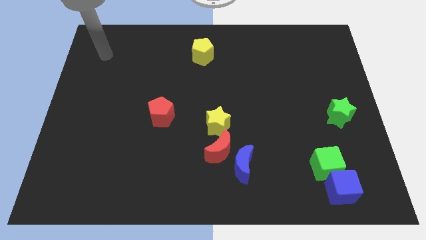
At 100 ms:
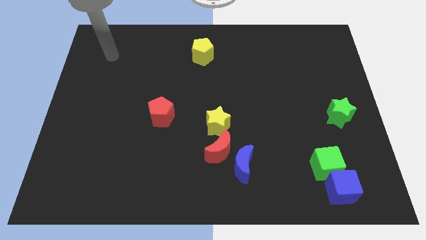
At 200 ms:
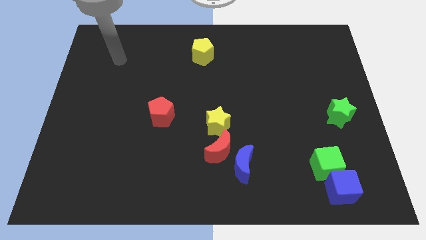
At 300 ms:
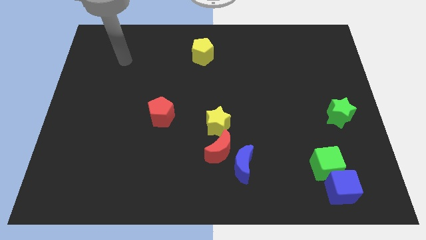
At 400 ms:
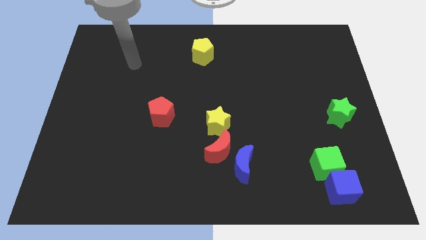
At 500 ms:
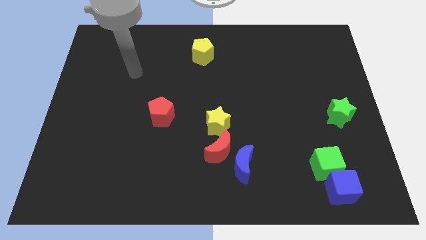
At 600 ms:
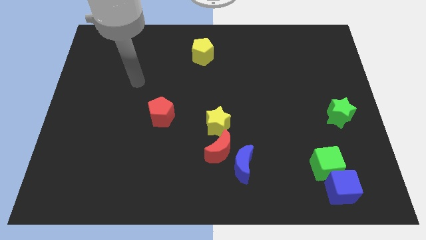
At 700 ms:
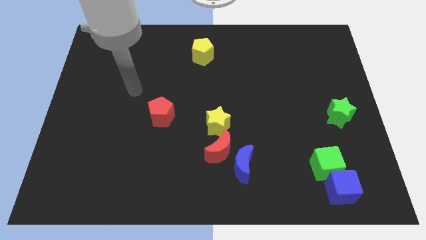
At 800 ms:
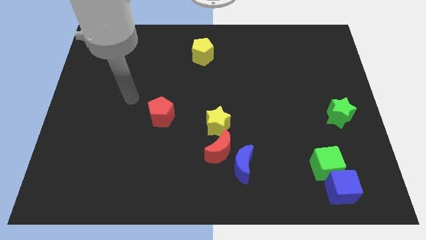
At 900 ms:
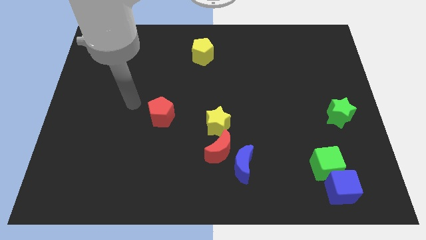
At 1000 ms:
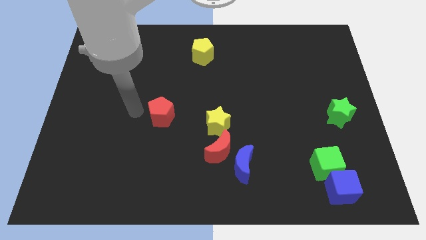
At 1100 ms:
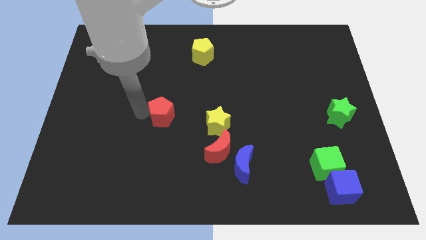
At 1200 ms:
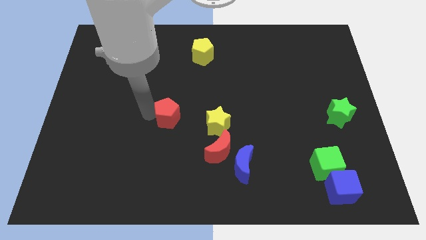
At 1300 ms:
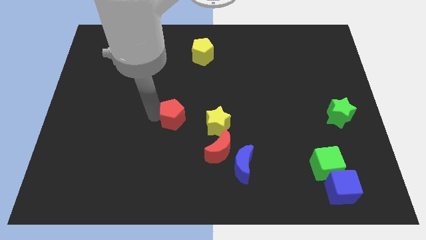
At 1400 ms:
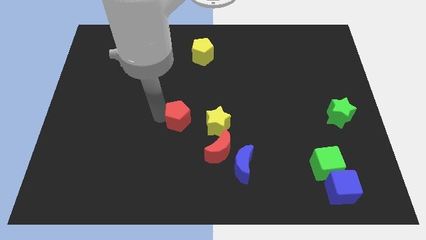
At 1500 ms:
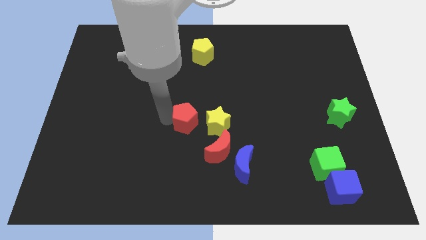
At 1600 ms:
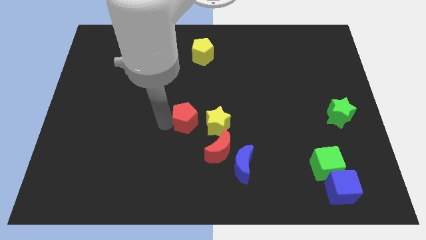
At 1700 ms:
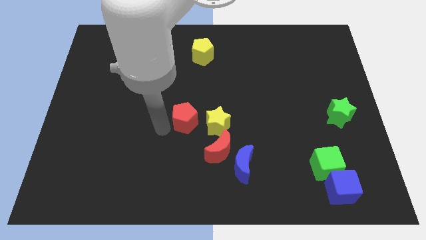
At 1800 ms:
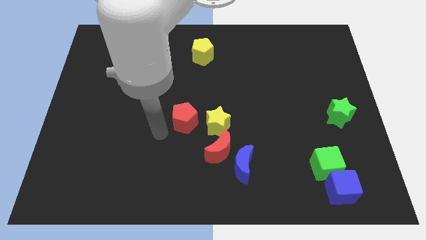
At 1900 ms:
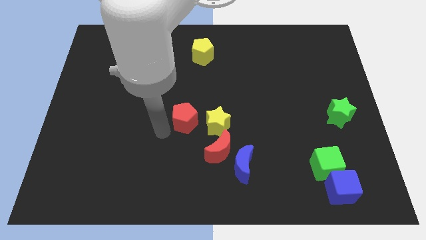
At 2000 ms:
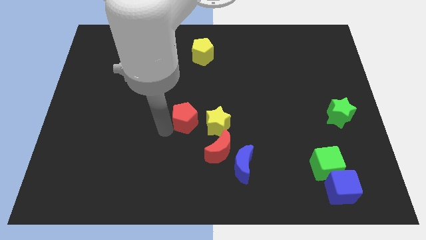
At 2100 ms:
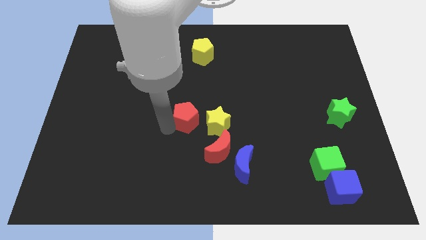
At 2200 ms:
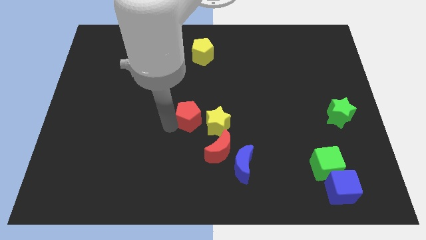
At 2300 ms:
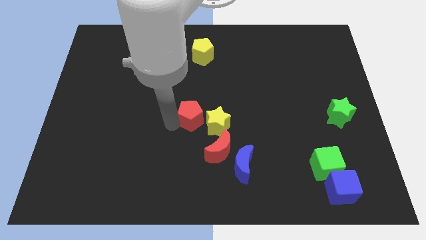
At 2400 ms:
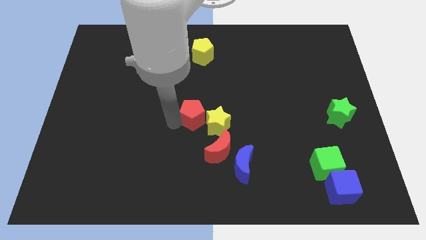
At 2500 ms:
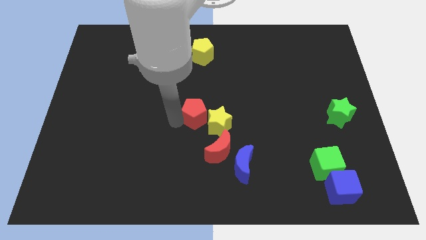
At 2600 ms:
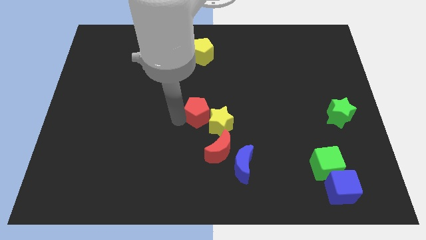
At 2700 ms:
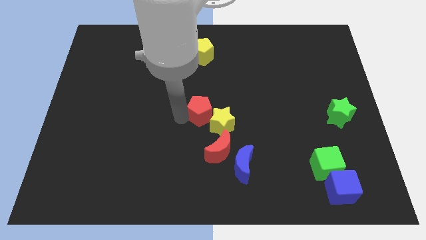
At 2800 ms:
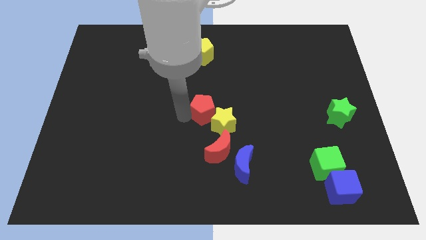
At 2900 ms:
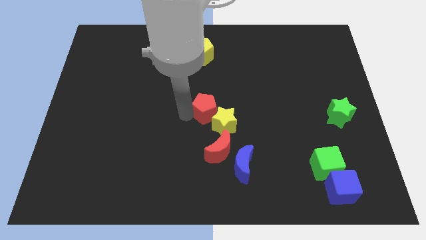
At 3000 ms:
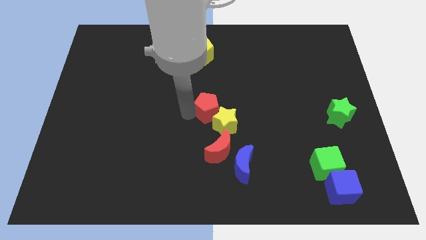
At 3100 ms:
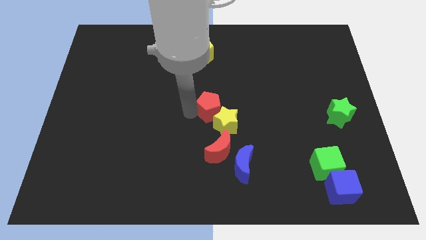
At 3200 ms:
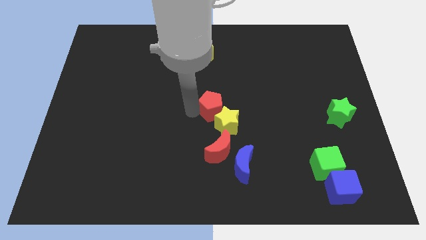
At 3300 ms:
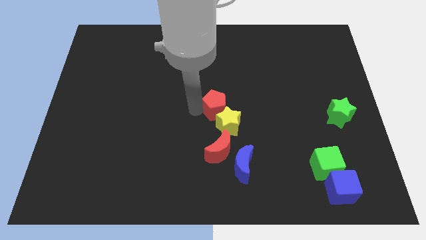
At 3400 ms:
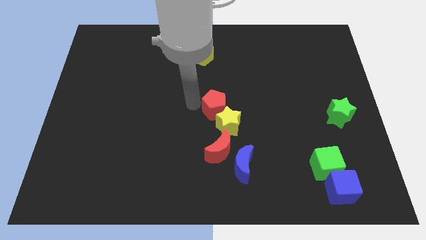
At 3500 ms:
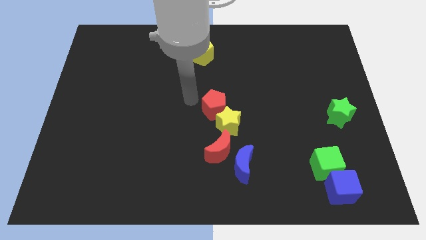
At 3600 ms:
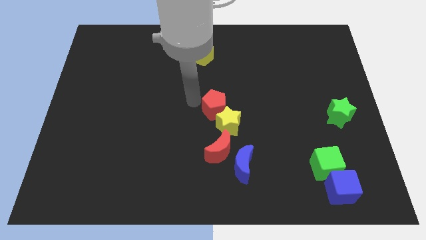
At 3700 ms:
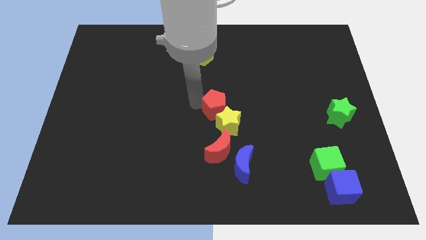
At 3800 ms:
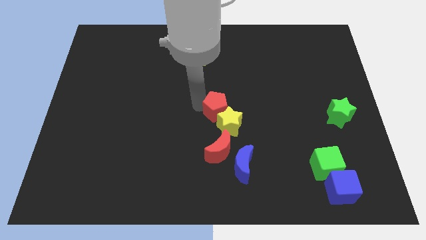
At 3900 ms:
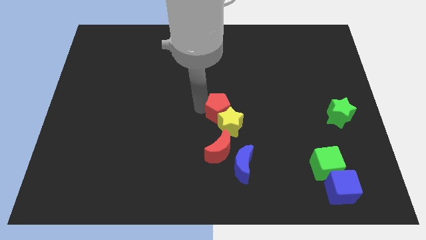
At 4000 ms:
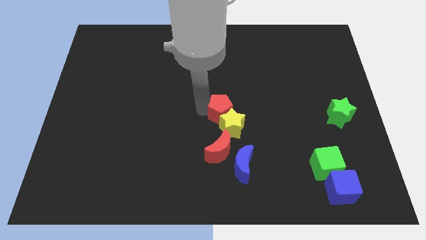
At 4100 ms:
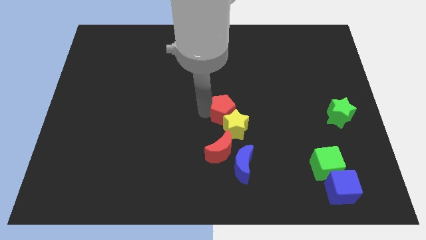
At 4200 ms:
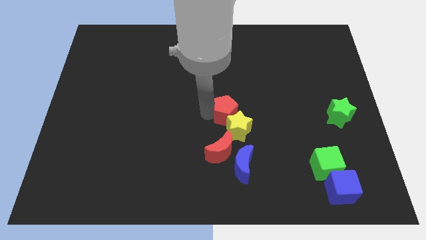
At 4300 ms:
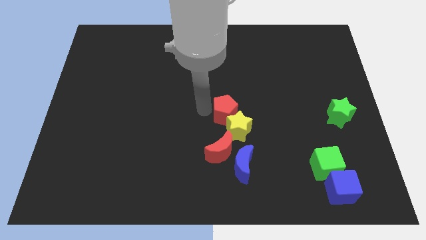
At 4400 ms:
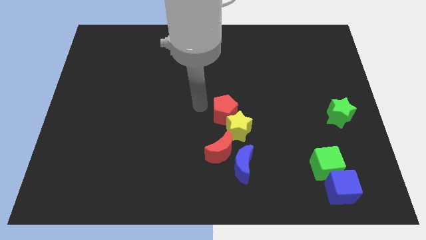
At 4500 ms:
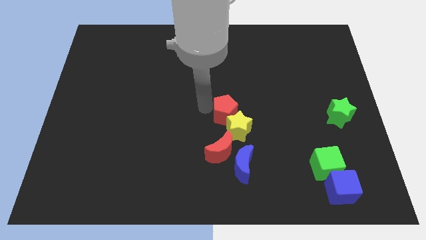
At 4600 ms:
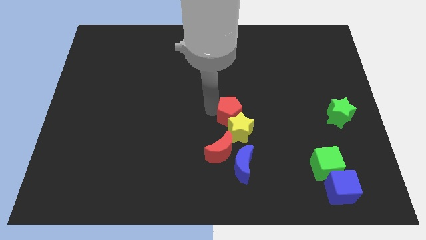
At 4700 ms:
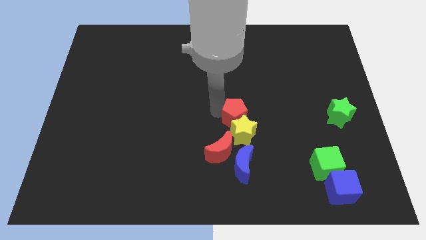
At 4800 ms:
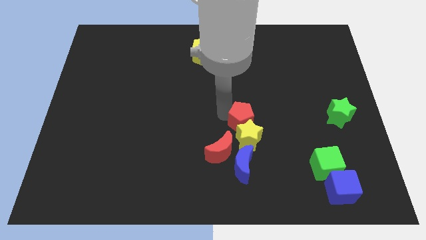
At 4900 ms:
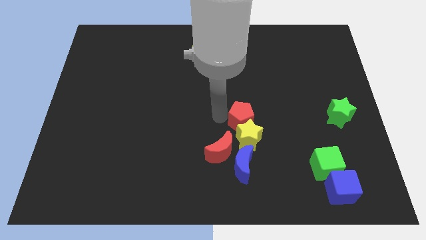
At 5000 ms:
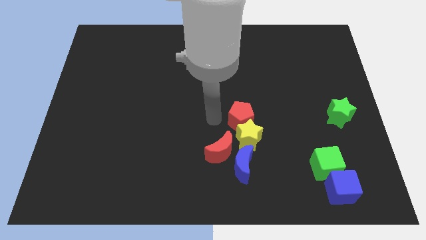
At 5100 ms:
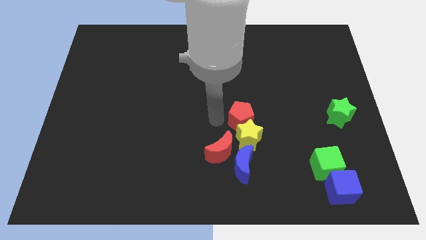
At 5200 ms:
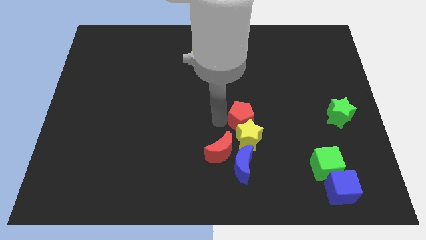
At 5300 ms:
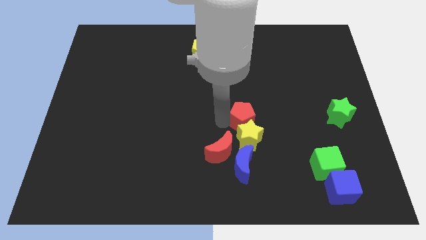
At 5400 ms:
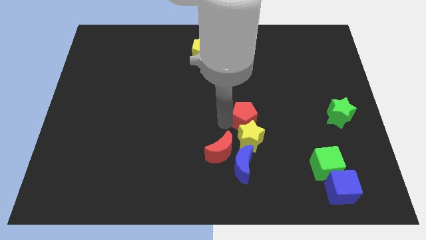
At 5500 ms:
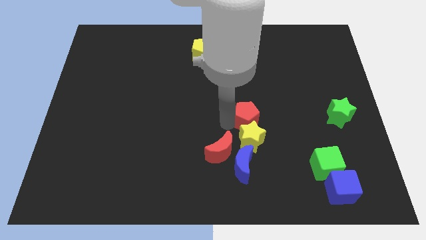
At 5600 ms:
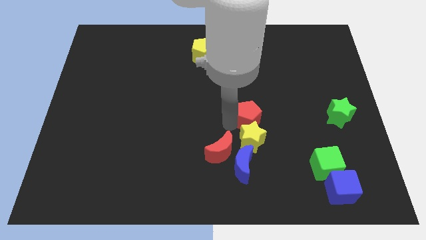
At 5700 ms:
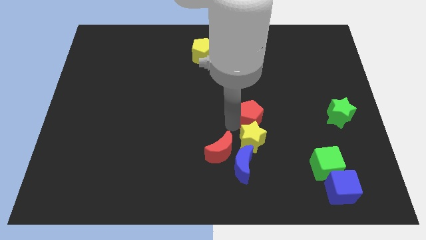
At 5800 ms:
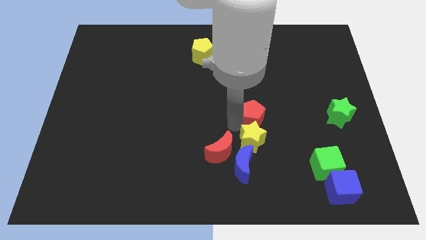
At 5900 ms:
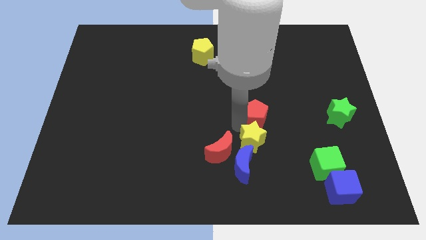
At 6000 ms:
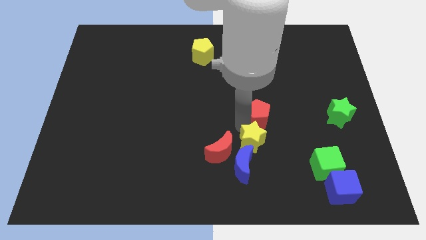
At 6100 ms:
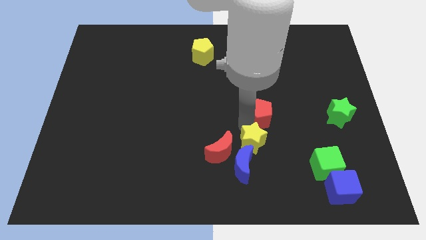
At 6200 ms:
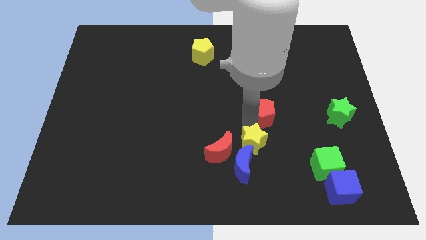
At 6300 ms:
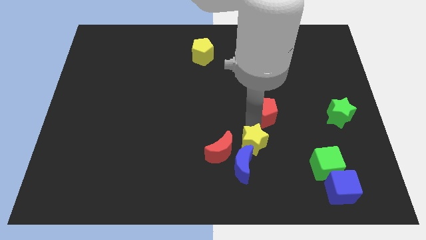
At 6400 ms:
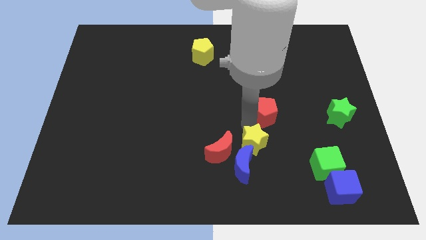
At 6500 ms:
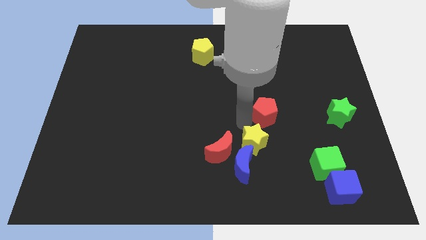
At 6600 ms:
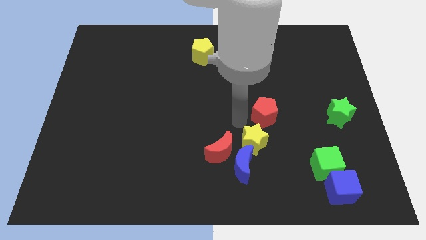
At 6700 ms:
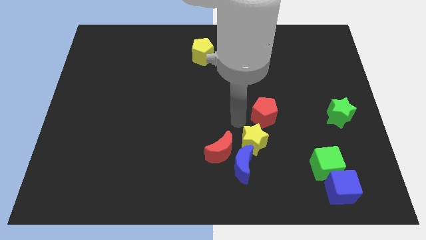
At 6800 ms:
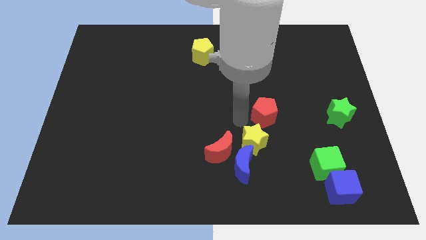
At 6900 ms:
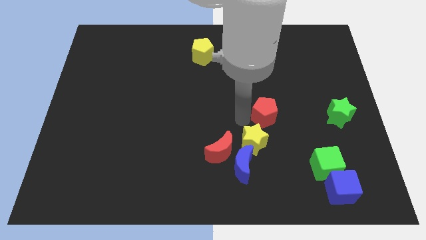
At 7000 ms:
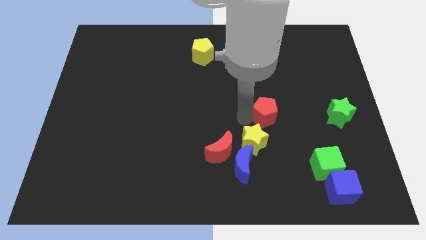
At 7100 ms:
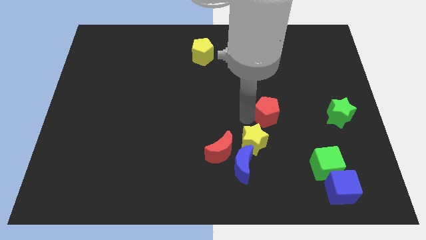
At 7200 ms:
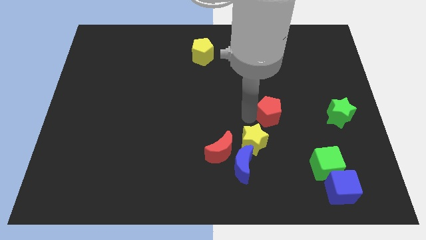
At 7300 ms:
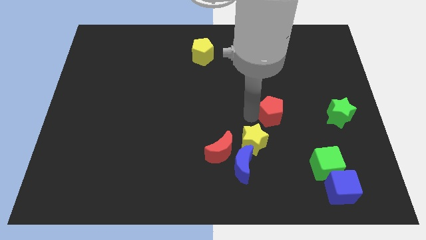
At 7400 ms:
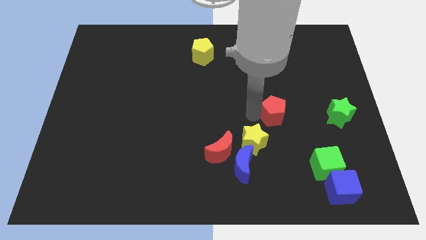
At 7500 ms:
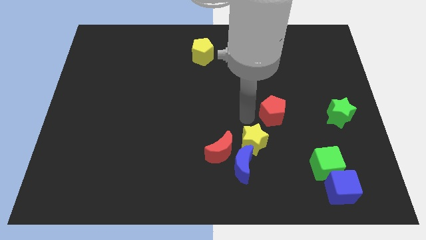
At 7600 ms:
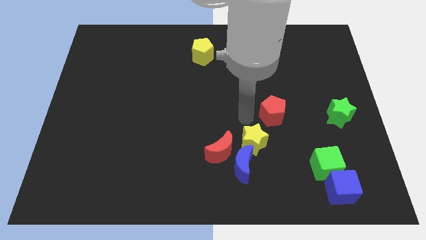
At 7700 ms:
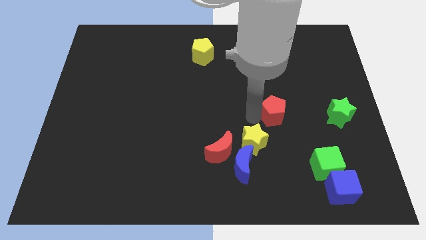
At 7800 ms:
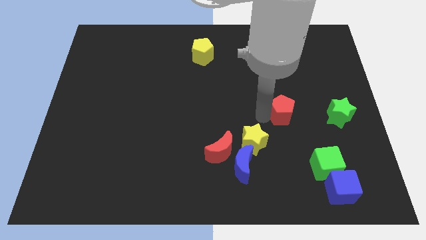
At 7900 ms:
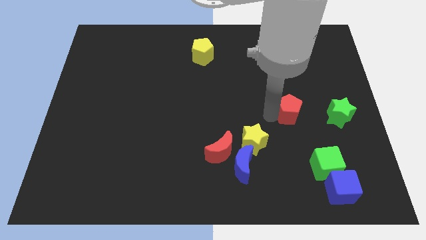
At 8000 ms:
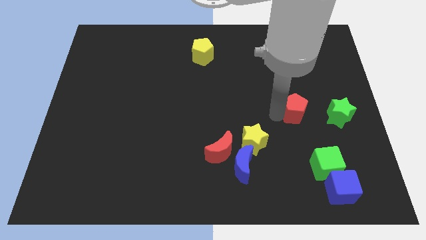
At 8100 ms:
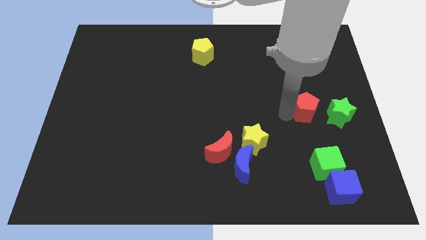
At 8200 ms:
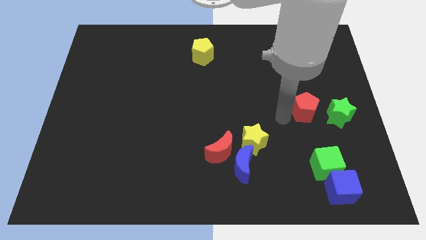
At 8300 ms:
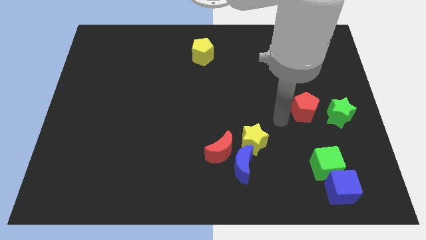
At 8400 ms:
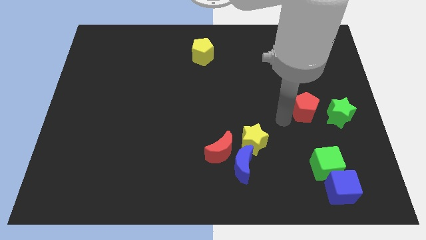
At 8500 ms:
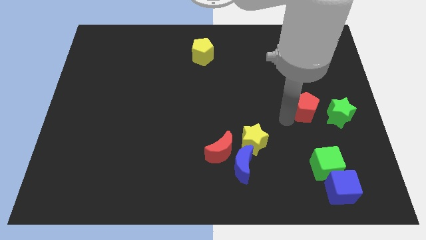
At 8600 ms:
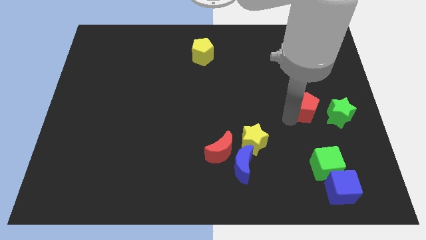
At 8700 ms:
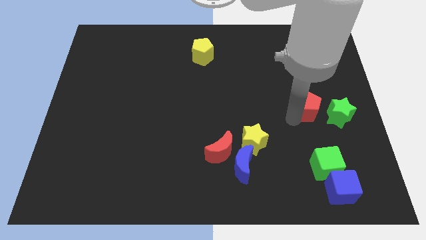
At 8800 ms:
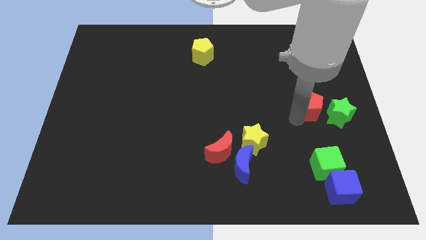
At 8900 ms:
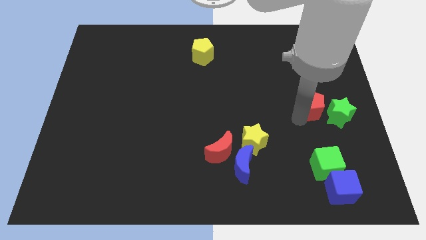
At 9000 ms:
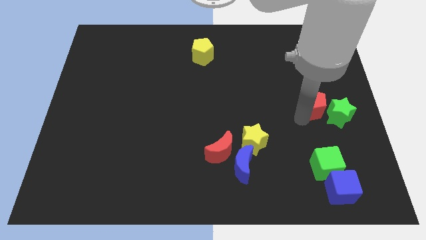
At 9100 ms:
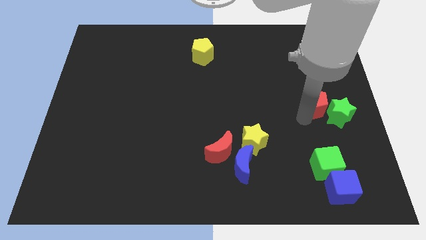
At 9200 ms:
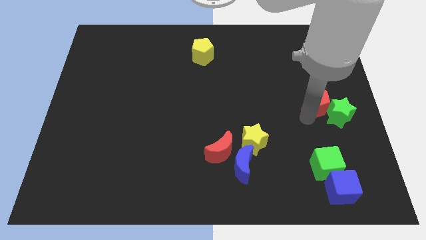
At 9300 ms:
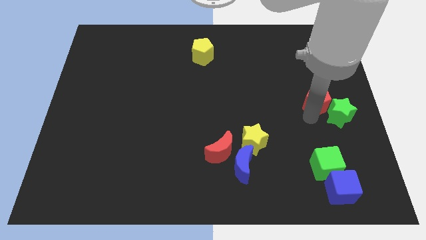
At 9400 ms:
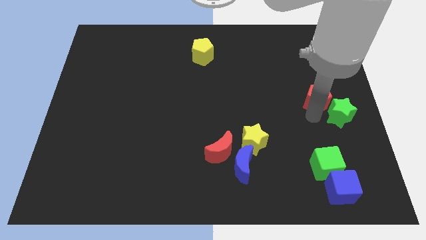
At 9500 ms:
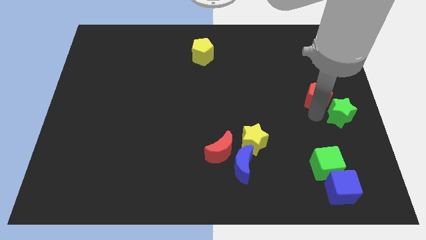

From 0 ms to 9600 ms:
slide the red pentagon to the right side
